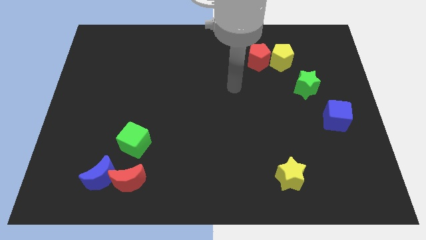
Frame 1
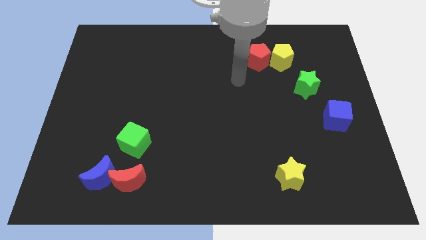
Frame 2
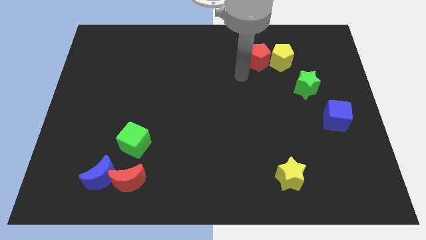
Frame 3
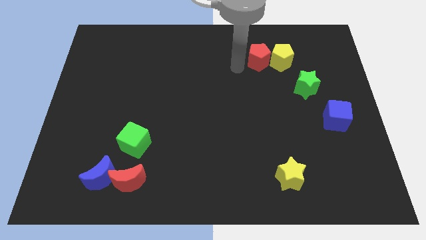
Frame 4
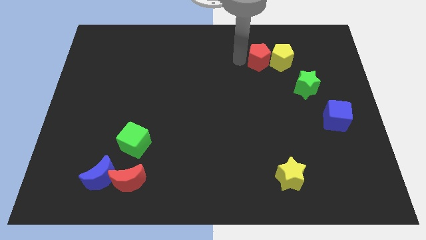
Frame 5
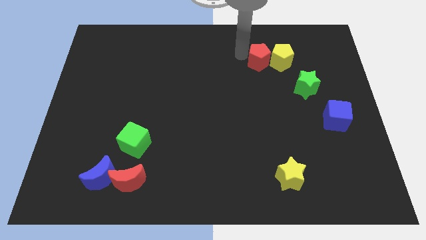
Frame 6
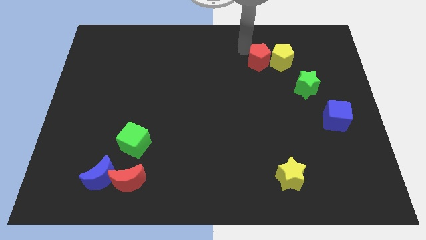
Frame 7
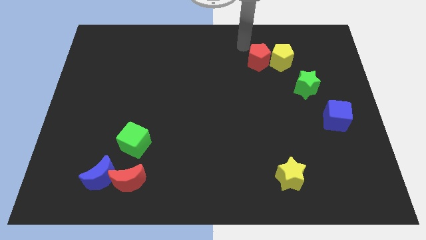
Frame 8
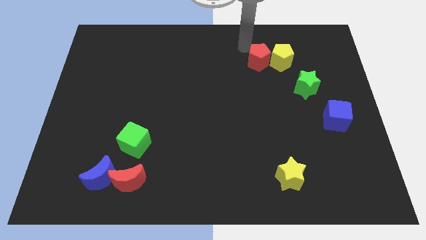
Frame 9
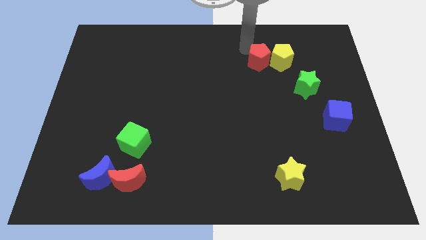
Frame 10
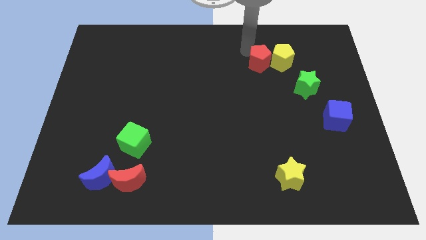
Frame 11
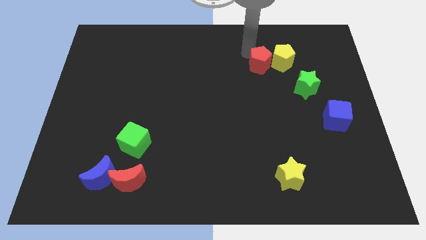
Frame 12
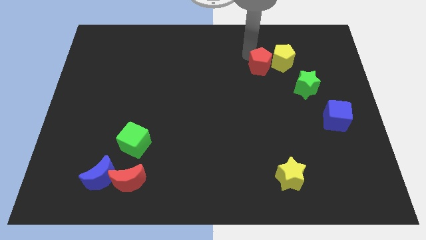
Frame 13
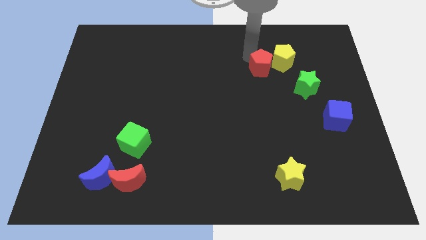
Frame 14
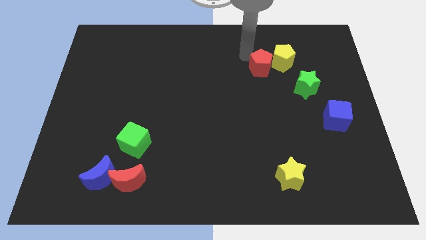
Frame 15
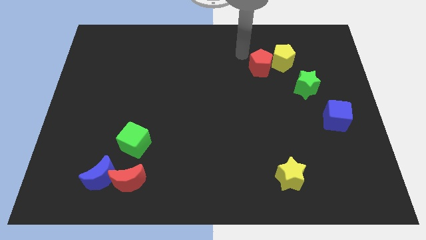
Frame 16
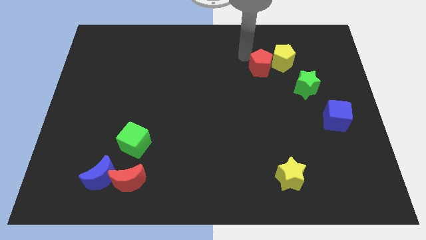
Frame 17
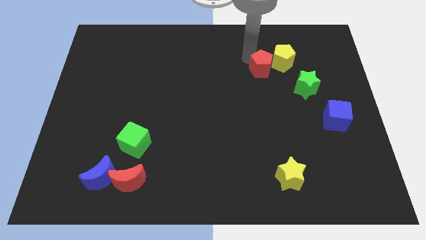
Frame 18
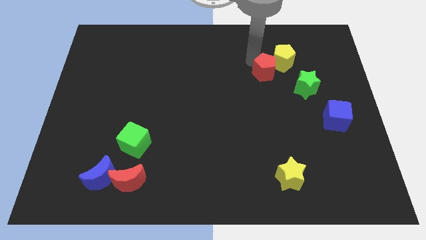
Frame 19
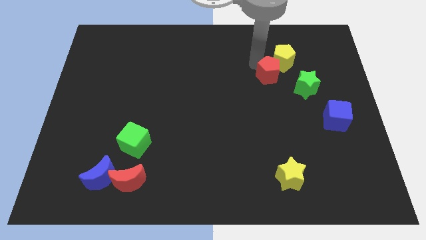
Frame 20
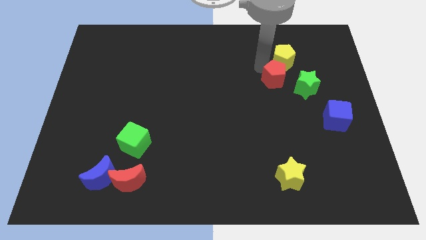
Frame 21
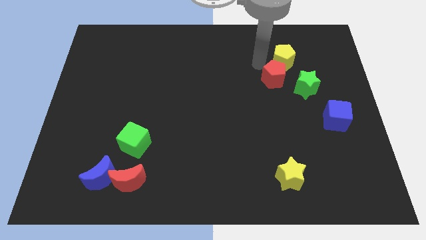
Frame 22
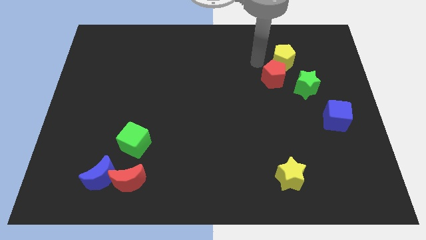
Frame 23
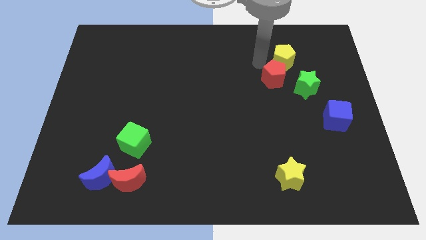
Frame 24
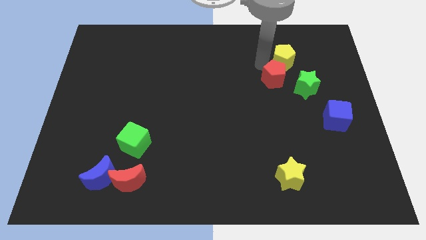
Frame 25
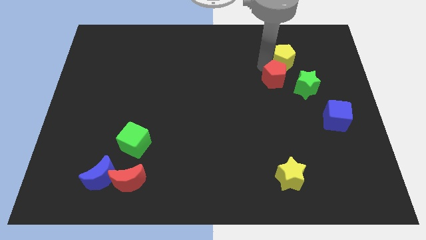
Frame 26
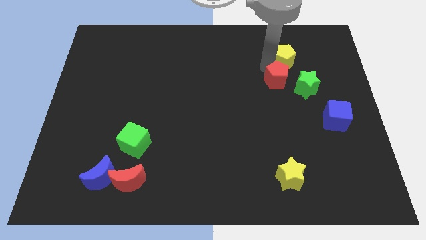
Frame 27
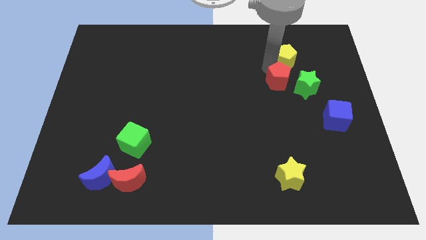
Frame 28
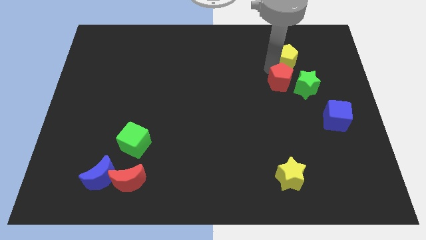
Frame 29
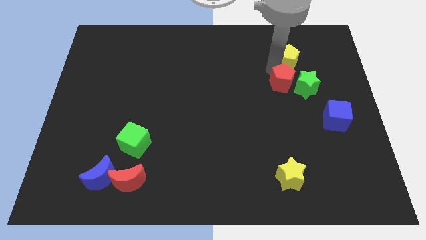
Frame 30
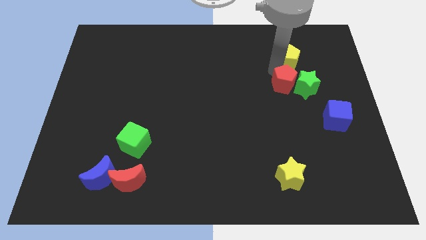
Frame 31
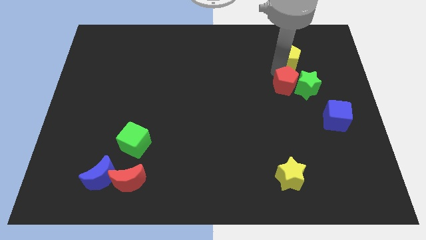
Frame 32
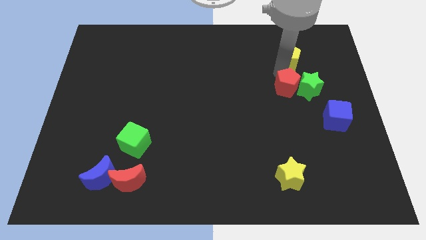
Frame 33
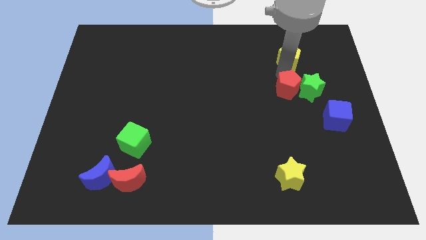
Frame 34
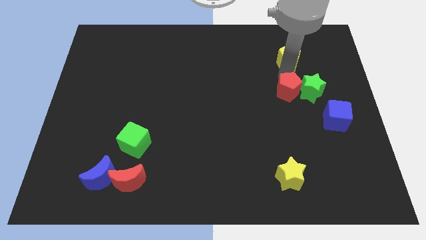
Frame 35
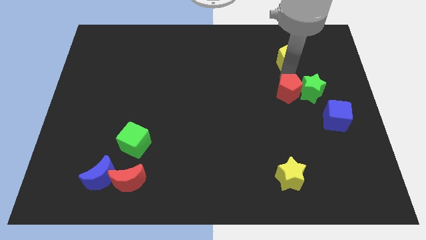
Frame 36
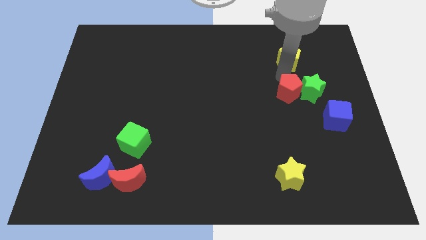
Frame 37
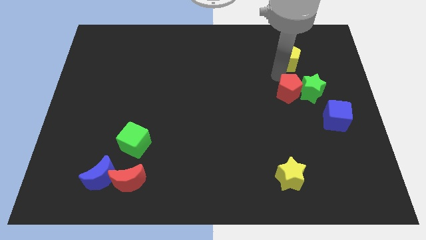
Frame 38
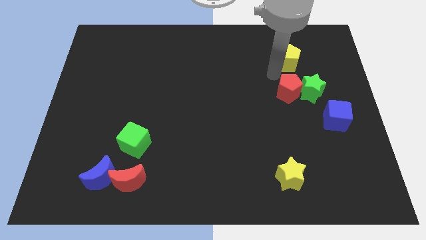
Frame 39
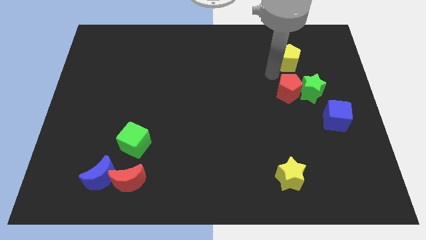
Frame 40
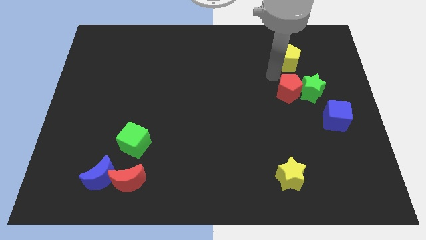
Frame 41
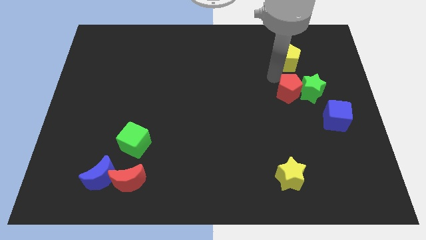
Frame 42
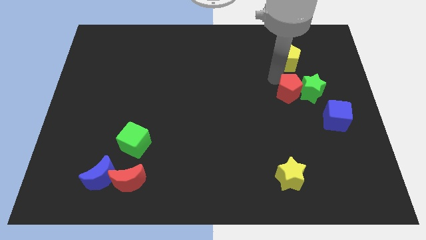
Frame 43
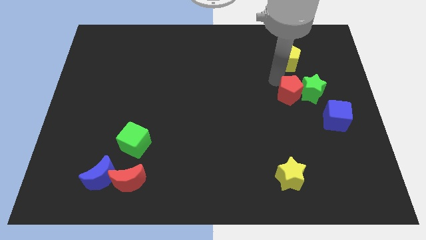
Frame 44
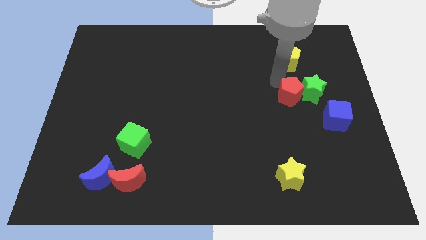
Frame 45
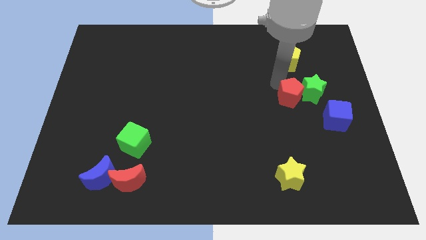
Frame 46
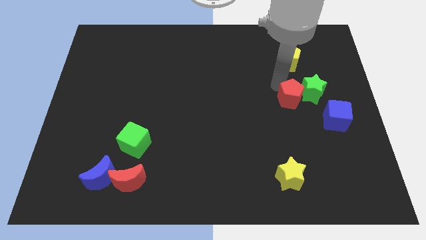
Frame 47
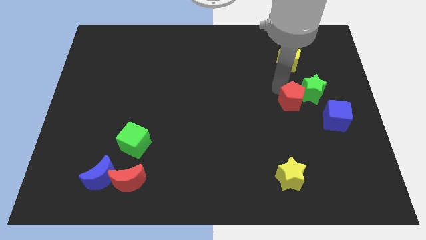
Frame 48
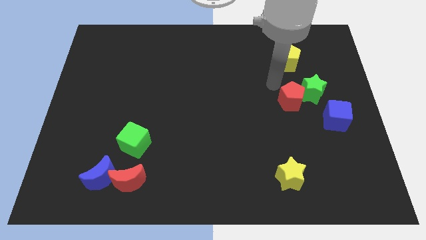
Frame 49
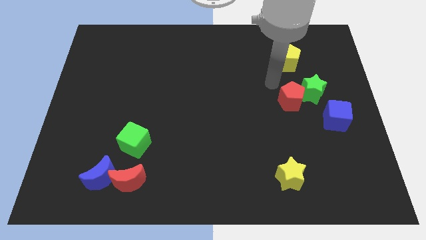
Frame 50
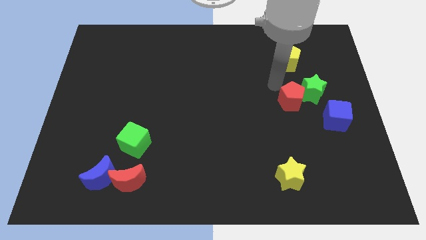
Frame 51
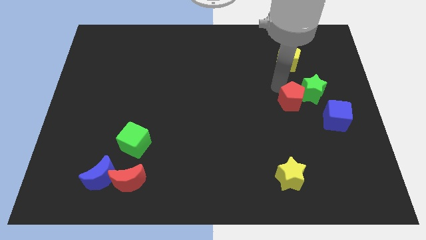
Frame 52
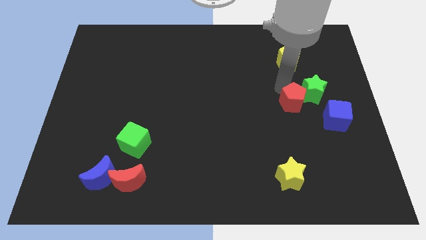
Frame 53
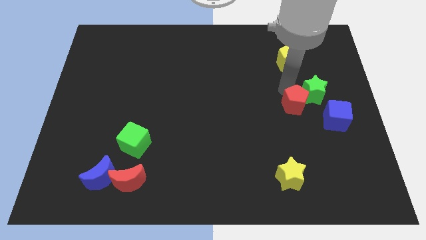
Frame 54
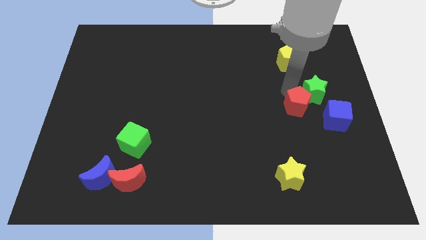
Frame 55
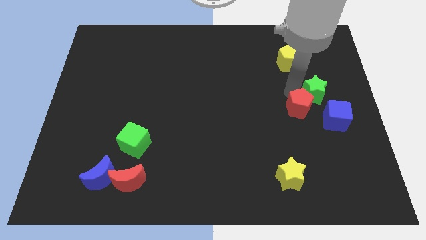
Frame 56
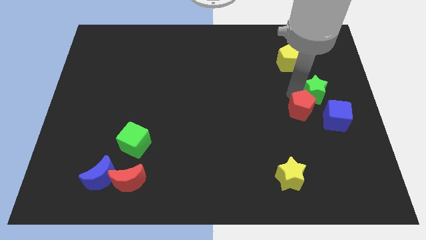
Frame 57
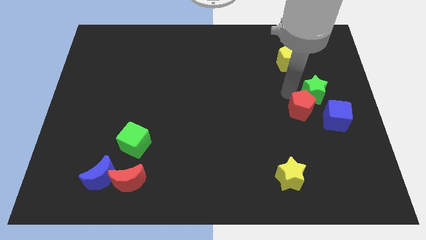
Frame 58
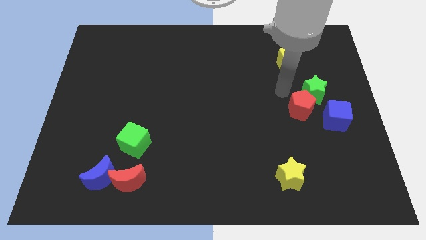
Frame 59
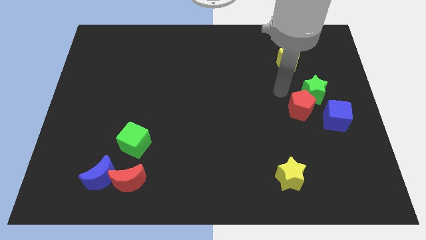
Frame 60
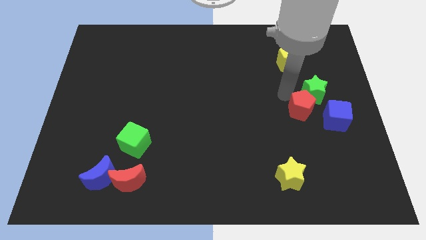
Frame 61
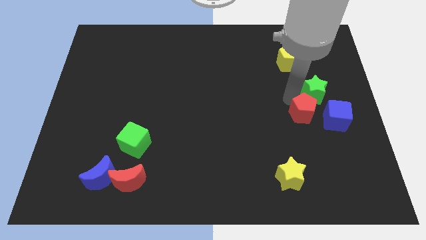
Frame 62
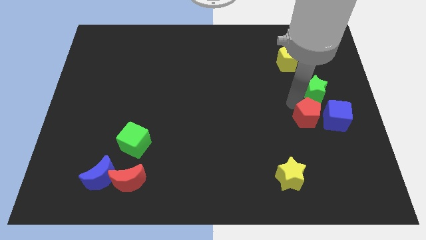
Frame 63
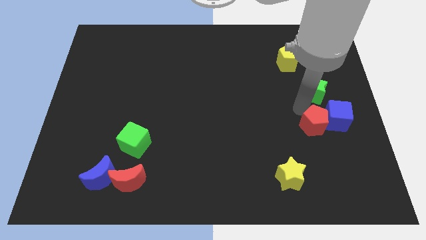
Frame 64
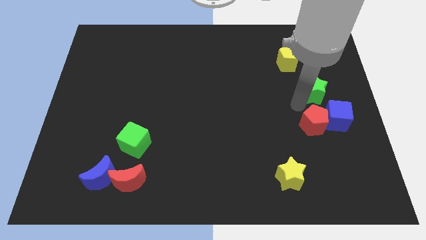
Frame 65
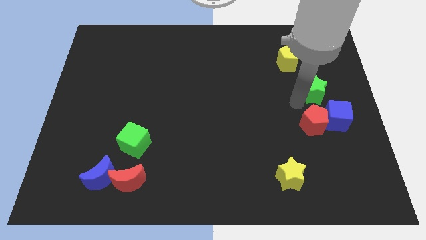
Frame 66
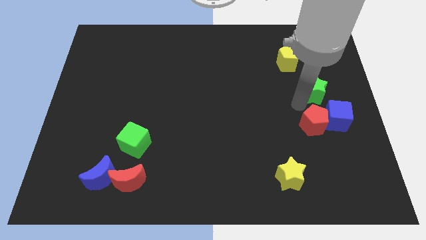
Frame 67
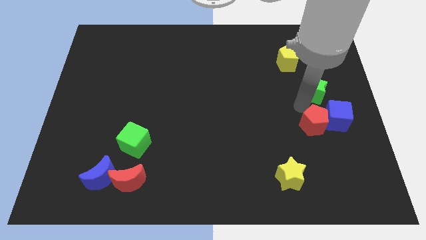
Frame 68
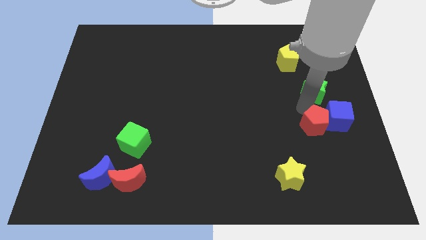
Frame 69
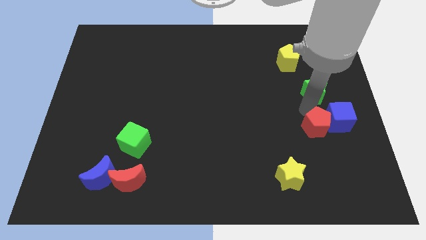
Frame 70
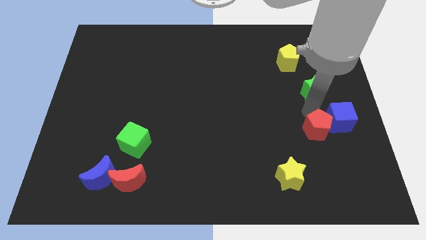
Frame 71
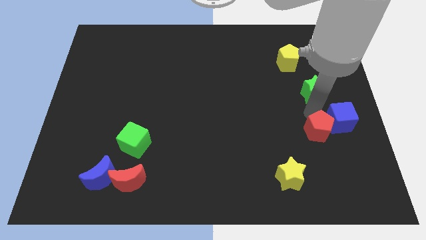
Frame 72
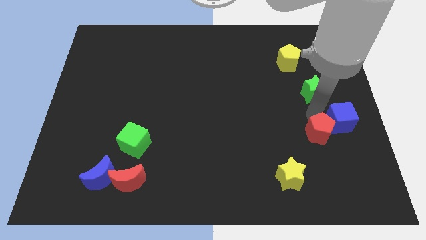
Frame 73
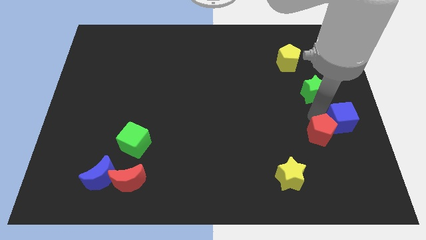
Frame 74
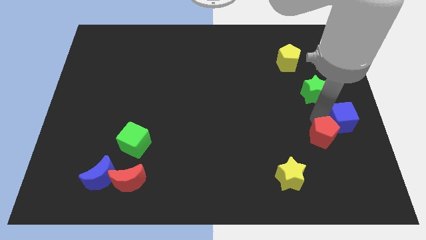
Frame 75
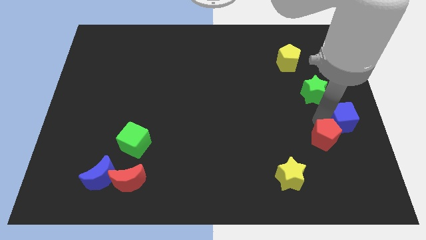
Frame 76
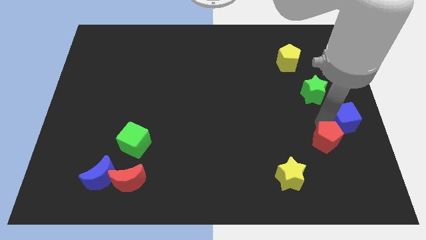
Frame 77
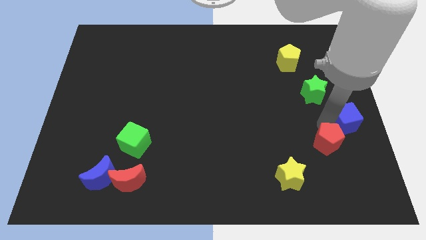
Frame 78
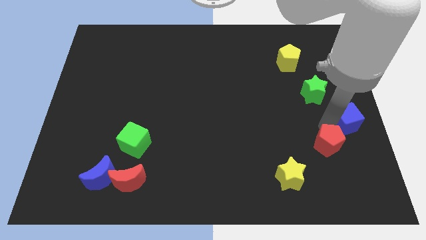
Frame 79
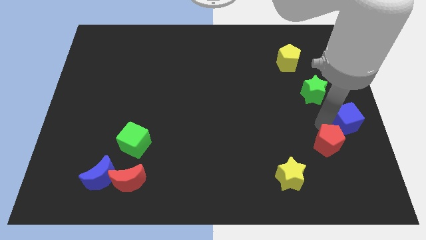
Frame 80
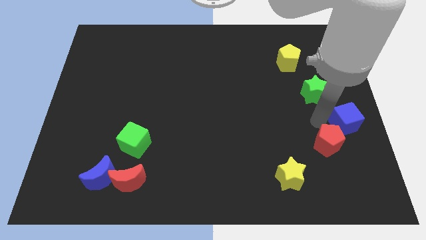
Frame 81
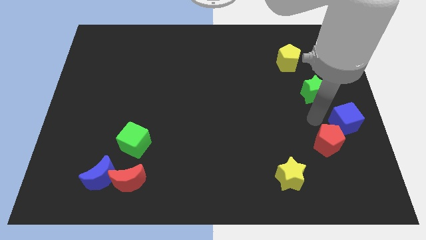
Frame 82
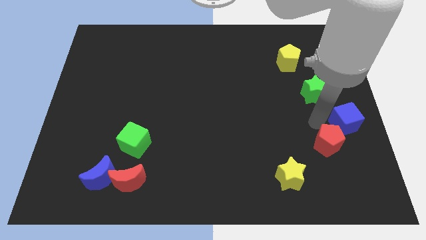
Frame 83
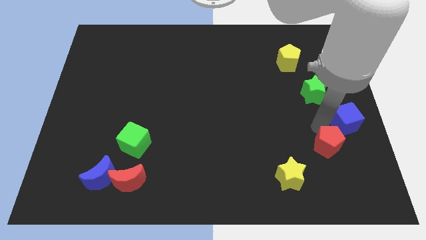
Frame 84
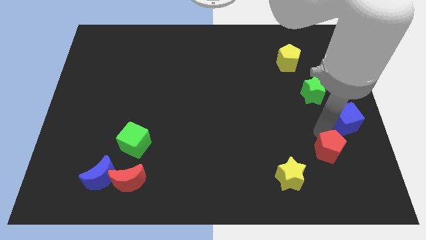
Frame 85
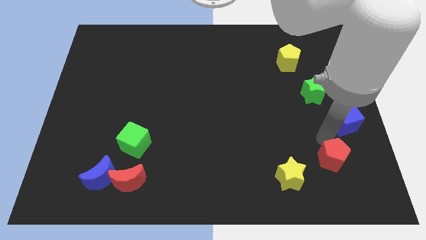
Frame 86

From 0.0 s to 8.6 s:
push the red pentagon just right of the yellow star
